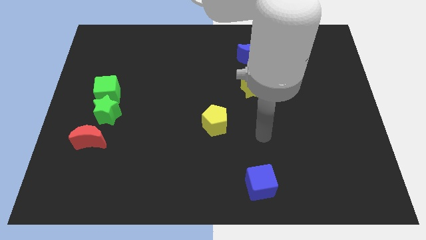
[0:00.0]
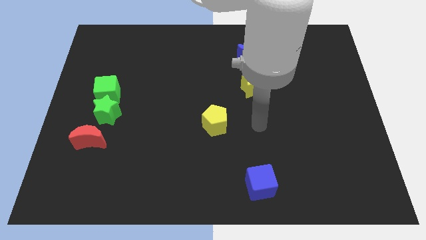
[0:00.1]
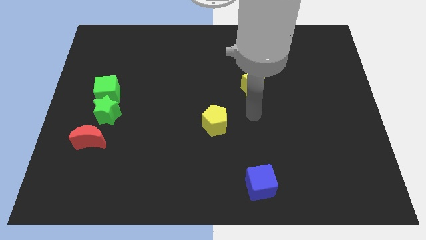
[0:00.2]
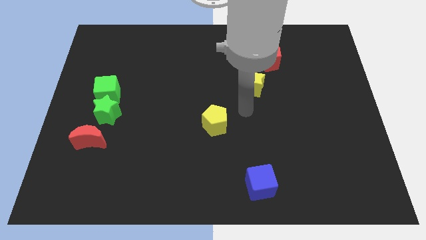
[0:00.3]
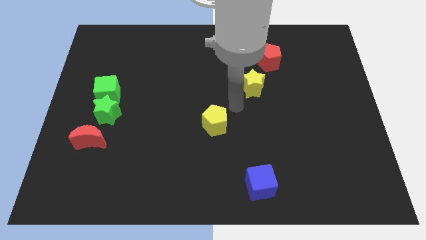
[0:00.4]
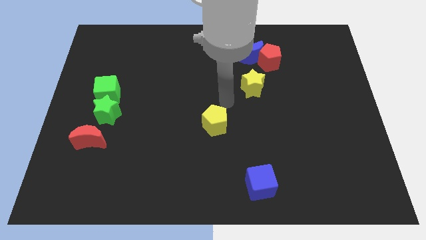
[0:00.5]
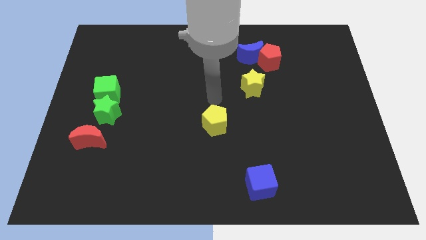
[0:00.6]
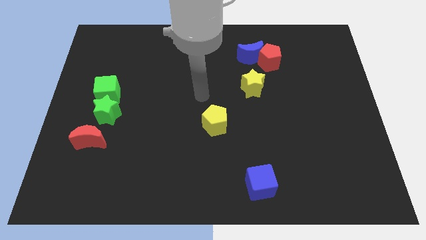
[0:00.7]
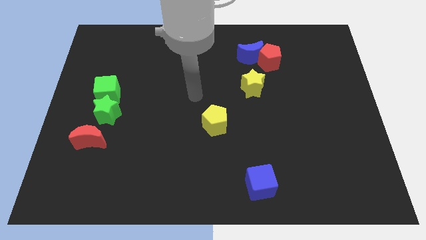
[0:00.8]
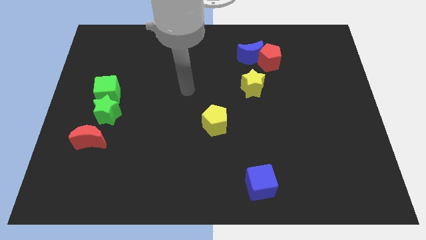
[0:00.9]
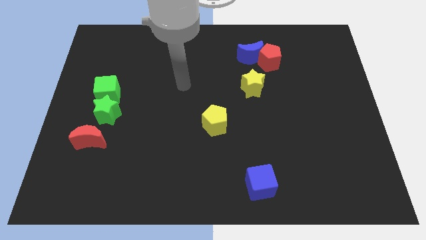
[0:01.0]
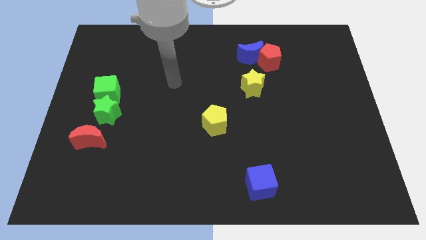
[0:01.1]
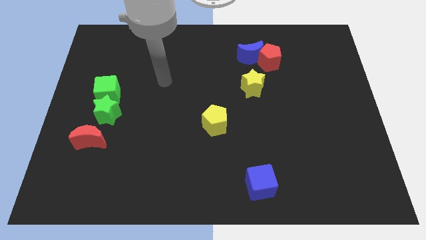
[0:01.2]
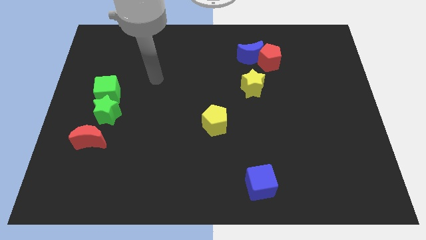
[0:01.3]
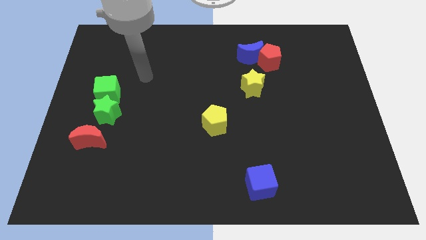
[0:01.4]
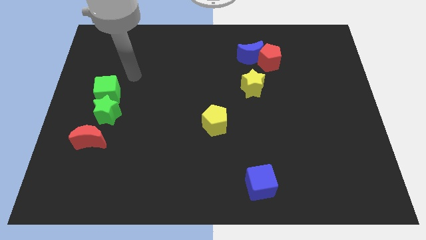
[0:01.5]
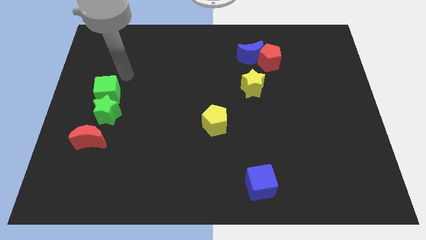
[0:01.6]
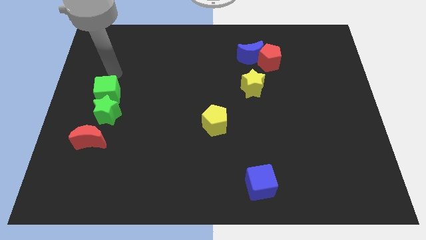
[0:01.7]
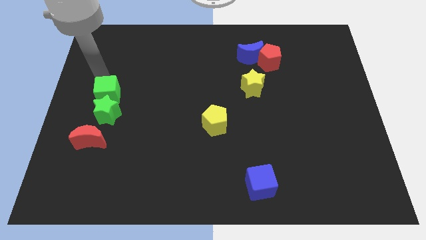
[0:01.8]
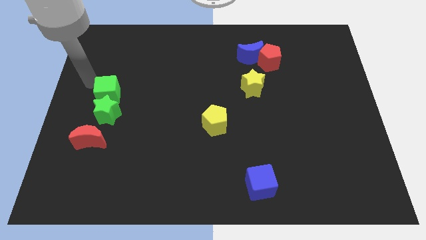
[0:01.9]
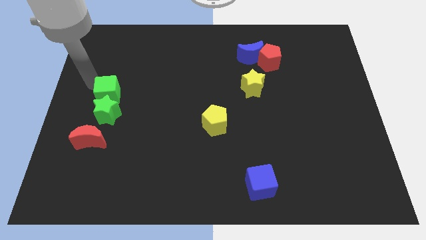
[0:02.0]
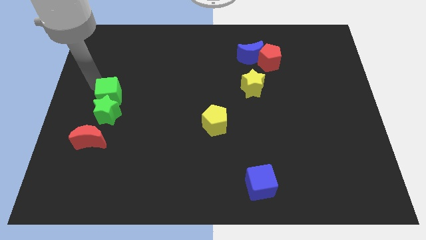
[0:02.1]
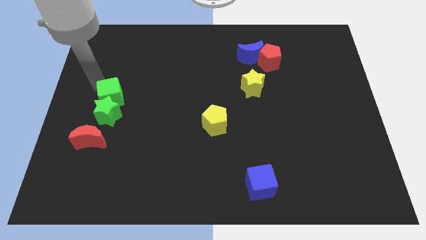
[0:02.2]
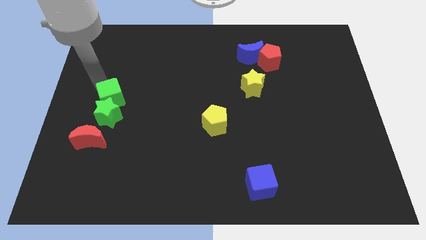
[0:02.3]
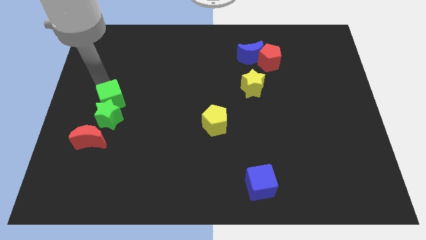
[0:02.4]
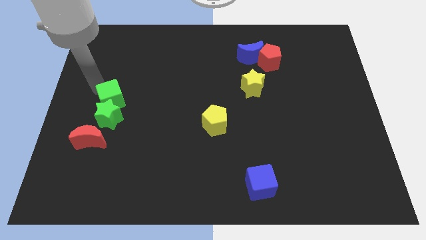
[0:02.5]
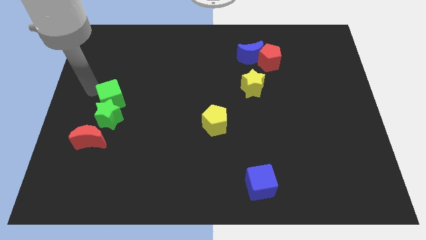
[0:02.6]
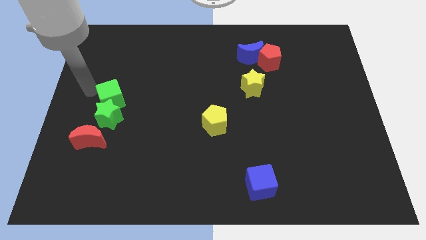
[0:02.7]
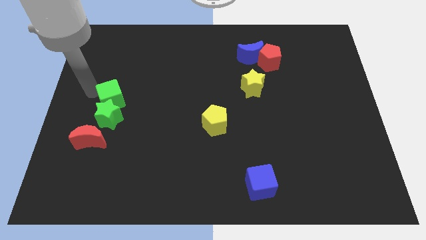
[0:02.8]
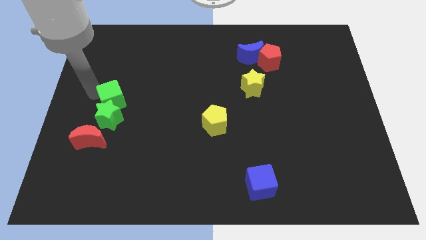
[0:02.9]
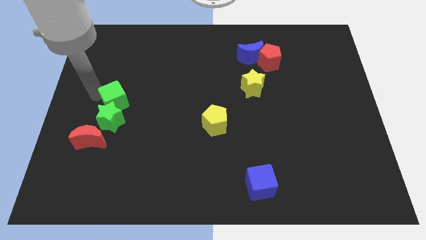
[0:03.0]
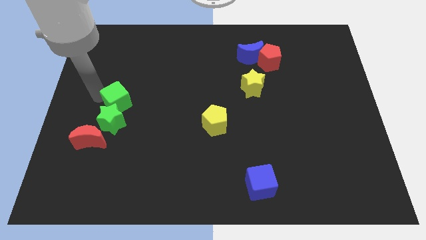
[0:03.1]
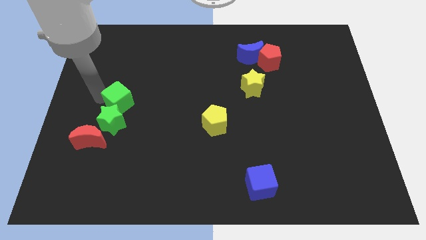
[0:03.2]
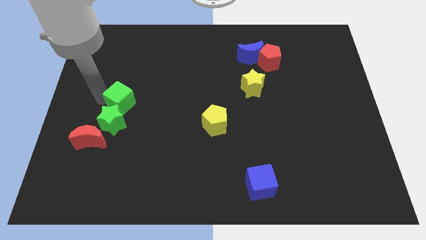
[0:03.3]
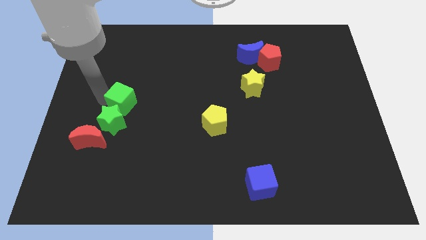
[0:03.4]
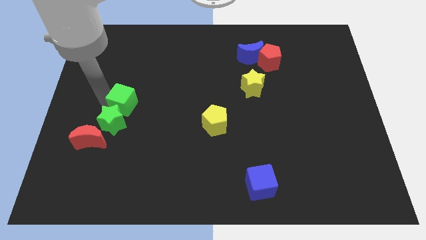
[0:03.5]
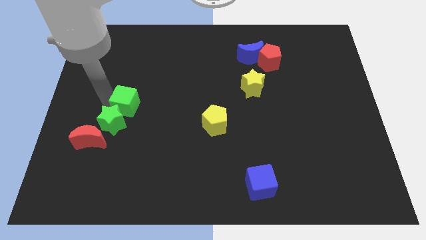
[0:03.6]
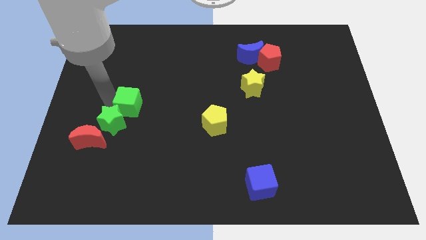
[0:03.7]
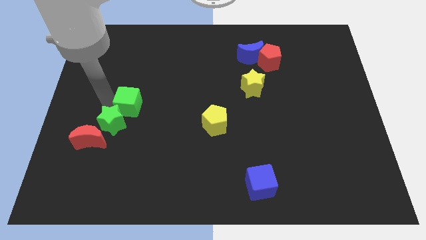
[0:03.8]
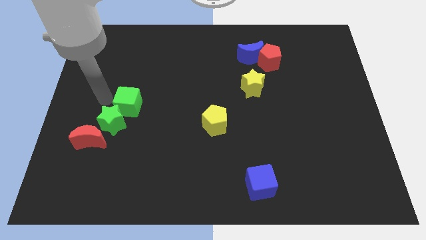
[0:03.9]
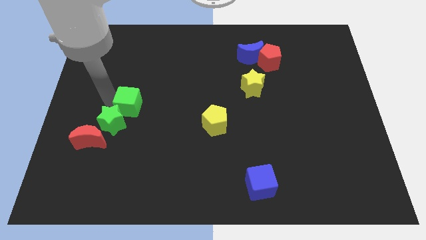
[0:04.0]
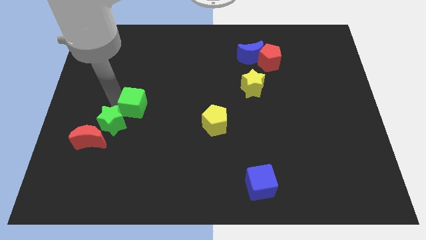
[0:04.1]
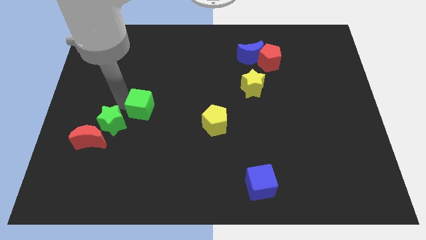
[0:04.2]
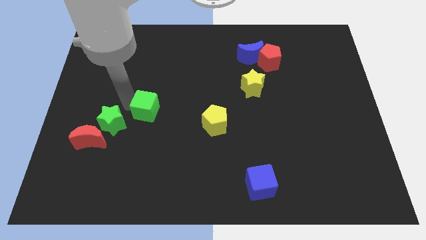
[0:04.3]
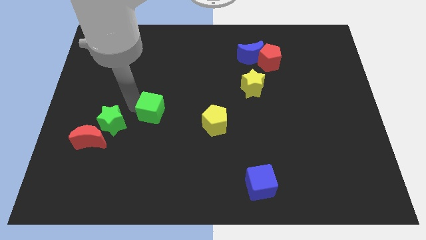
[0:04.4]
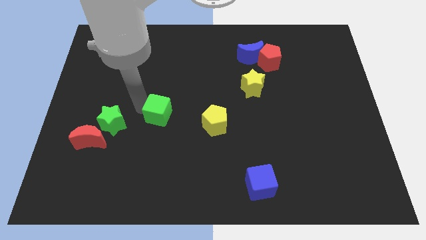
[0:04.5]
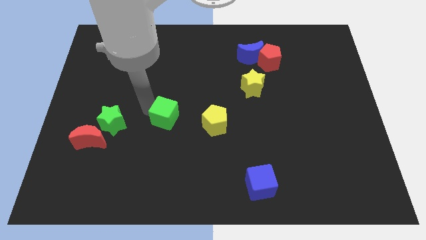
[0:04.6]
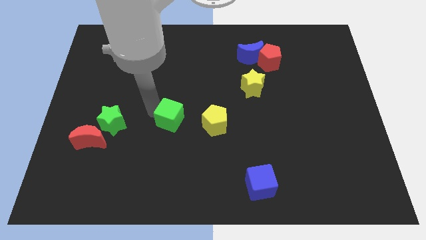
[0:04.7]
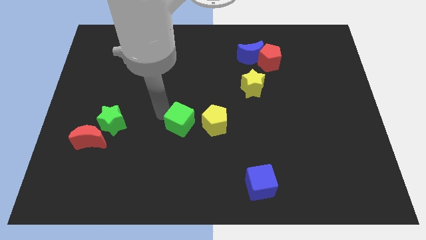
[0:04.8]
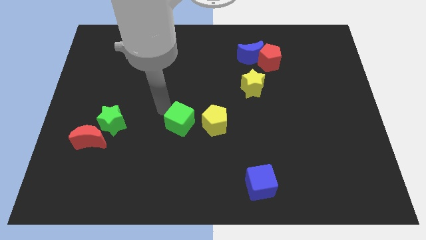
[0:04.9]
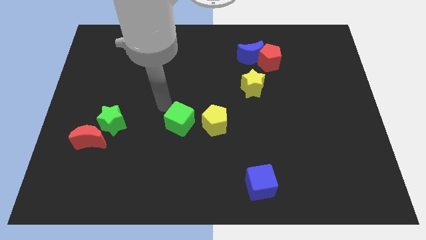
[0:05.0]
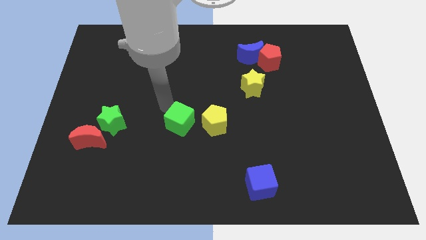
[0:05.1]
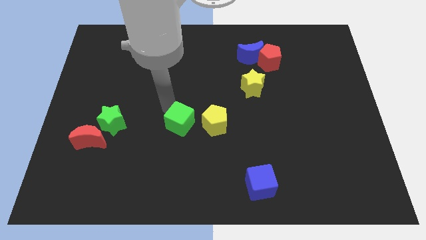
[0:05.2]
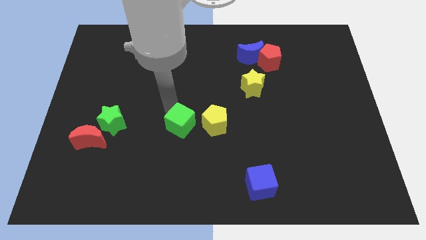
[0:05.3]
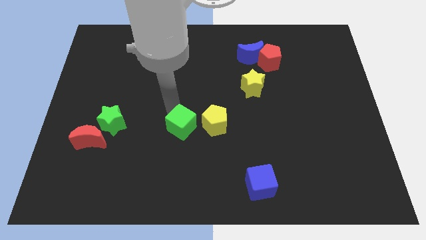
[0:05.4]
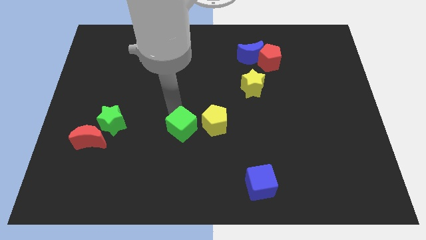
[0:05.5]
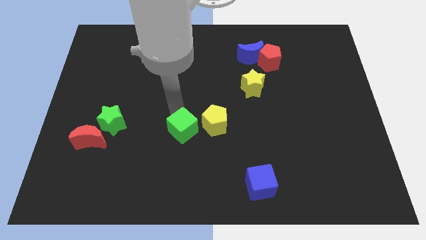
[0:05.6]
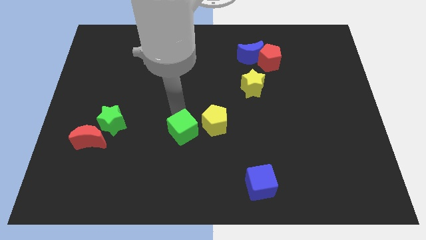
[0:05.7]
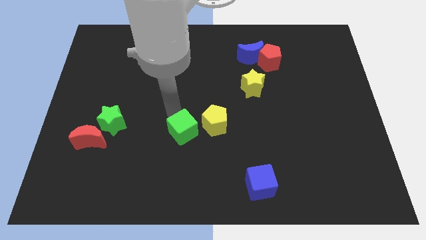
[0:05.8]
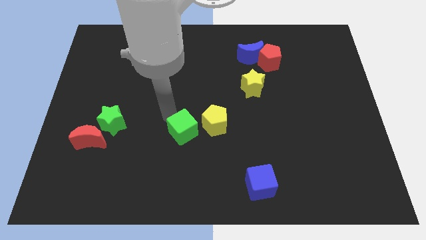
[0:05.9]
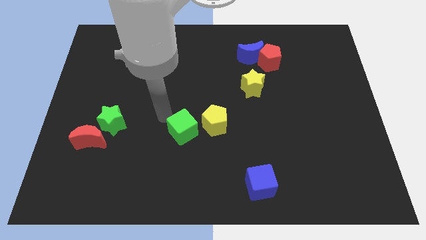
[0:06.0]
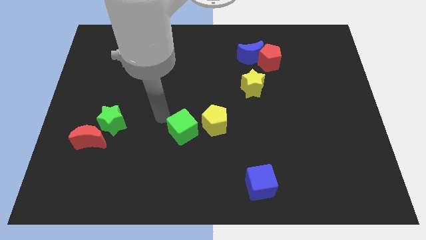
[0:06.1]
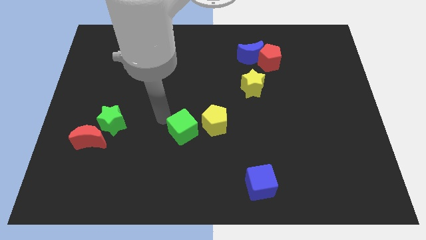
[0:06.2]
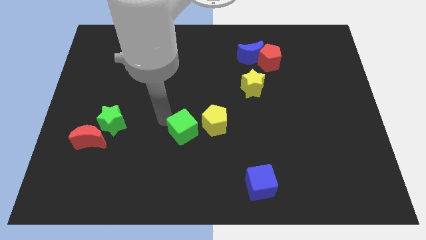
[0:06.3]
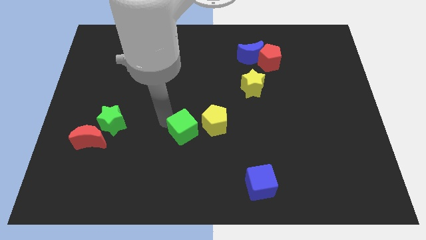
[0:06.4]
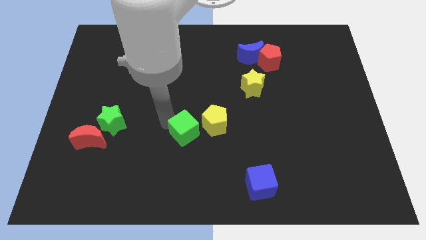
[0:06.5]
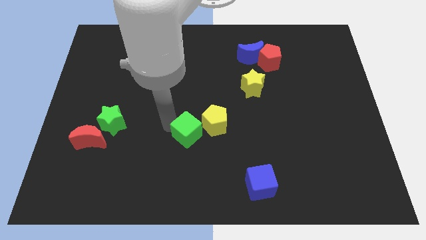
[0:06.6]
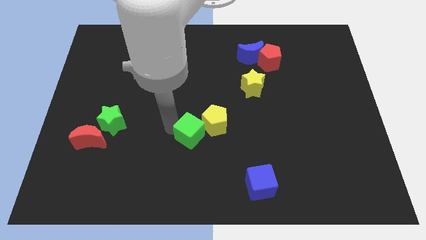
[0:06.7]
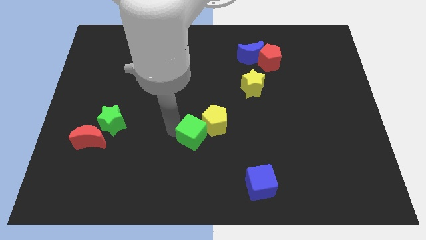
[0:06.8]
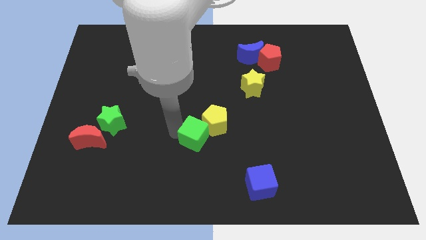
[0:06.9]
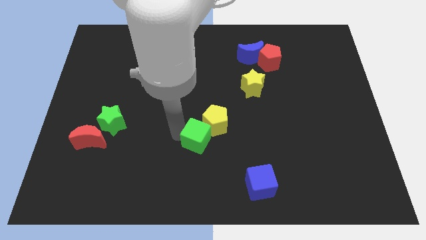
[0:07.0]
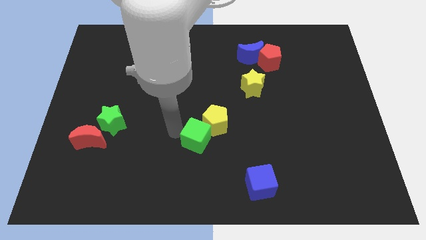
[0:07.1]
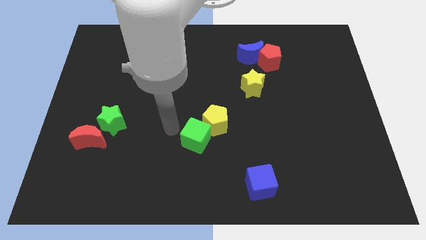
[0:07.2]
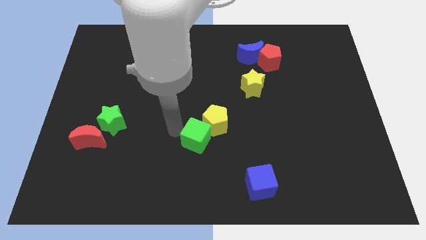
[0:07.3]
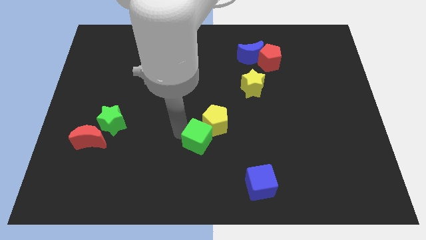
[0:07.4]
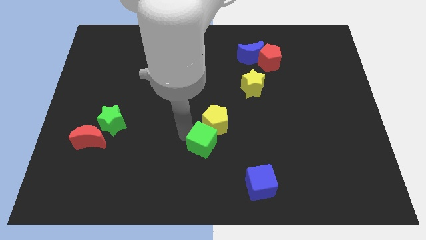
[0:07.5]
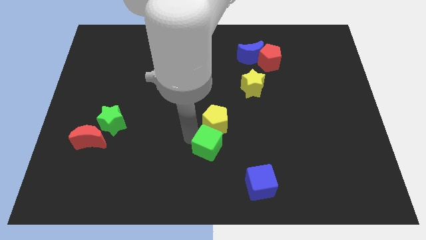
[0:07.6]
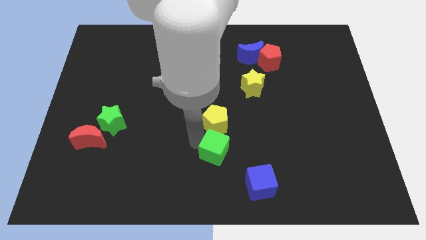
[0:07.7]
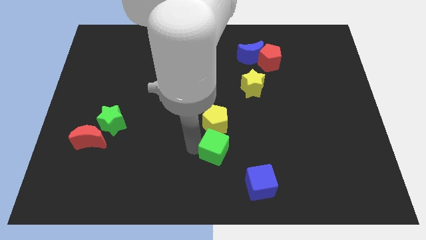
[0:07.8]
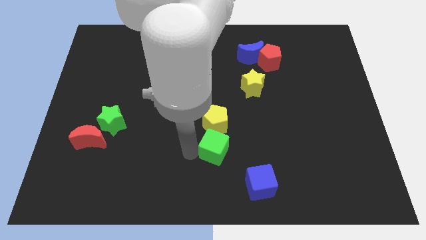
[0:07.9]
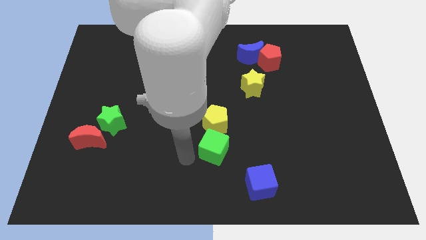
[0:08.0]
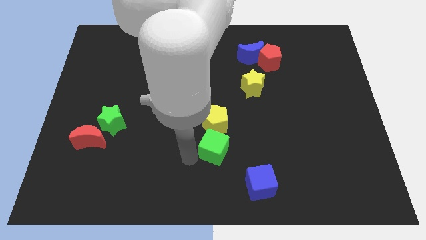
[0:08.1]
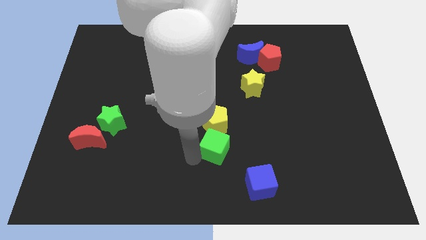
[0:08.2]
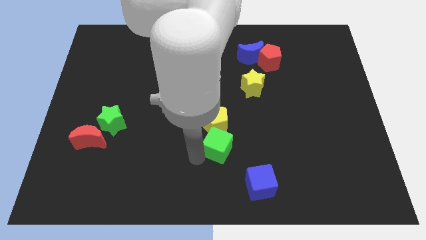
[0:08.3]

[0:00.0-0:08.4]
slide the green cube to the bottom right side of the yellow pentagon
